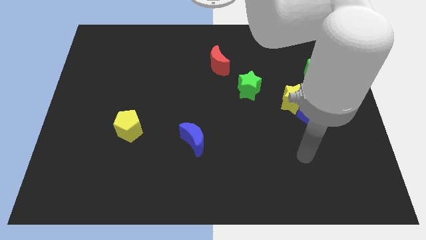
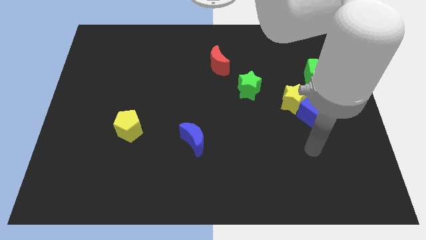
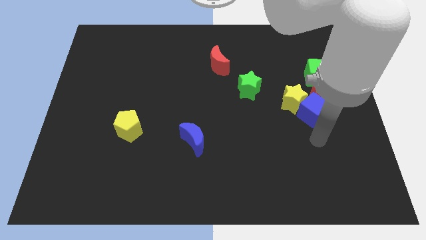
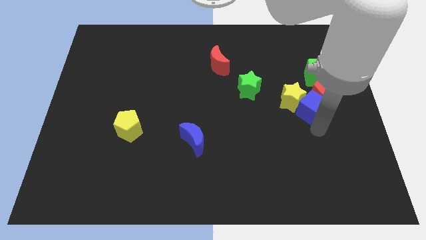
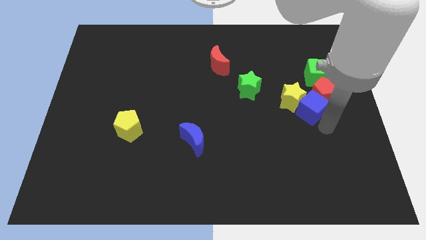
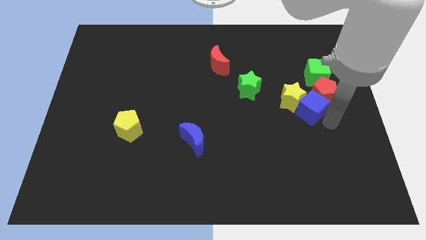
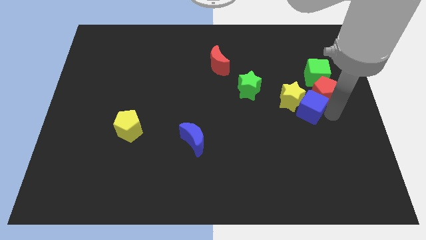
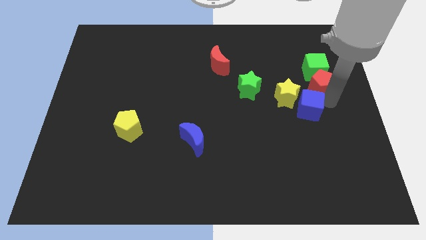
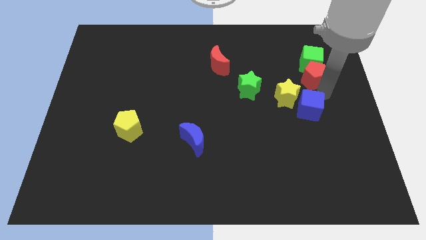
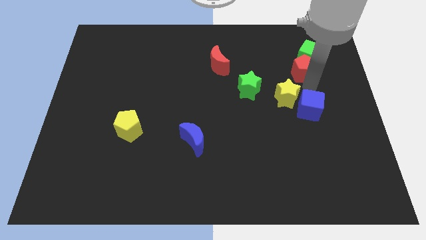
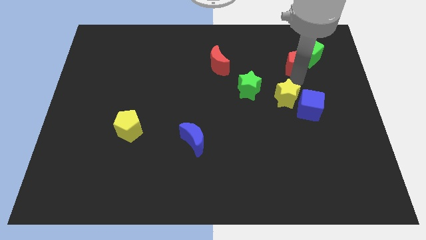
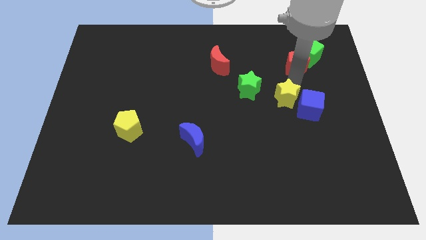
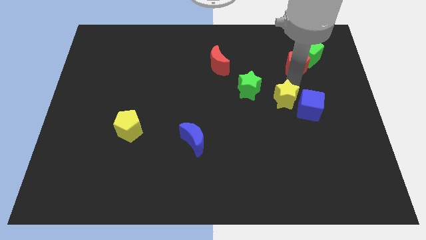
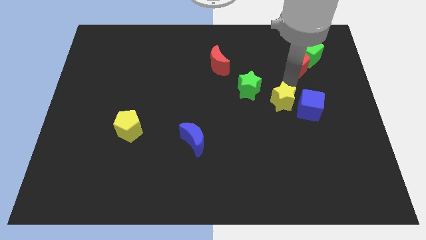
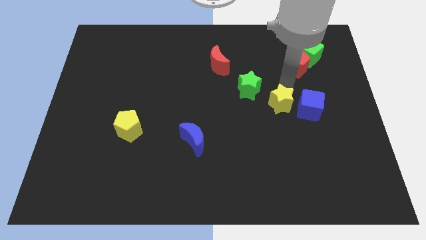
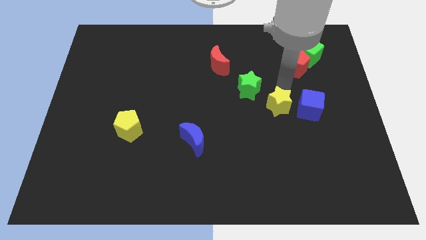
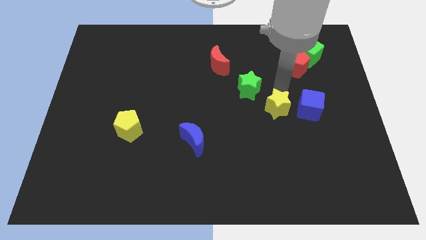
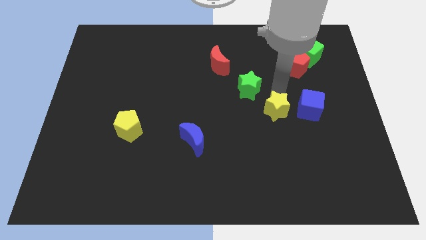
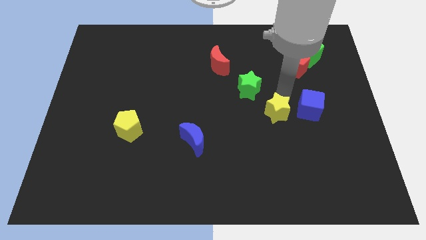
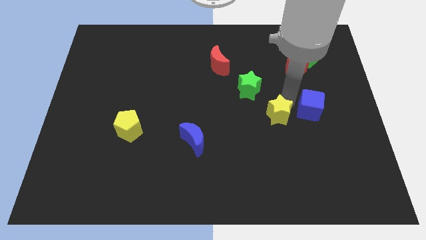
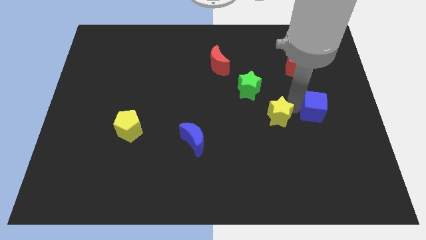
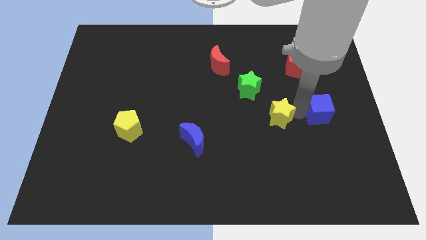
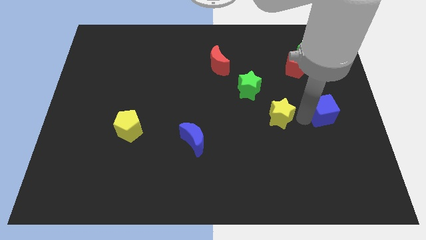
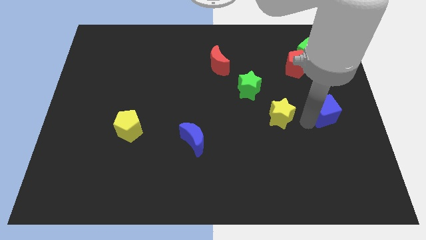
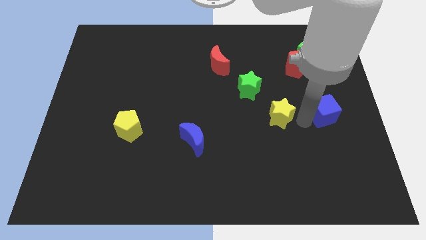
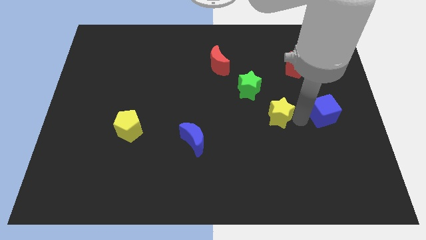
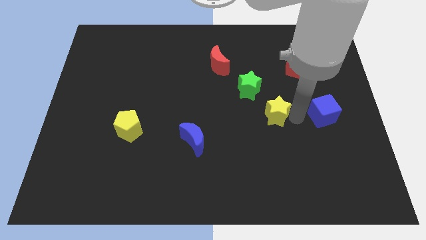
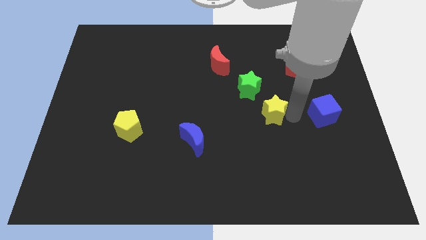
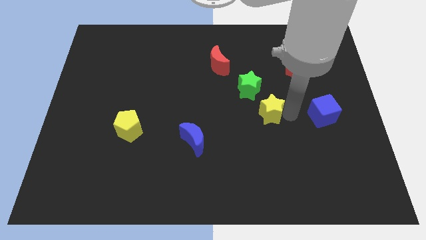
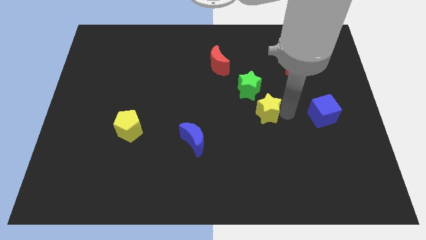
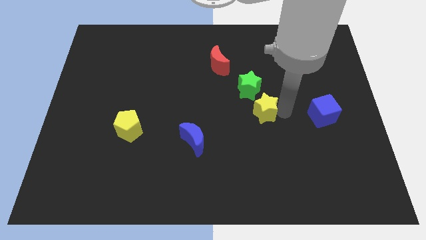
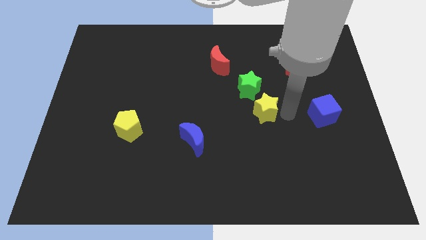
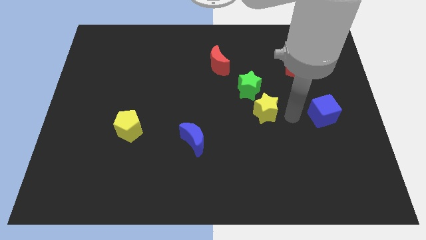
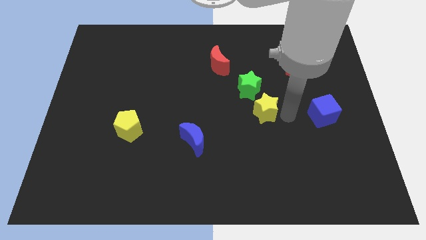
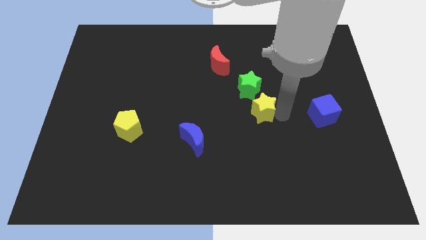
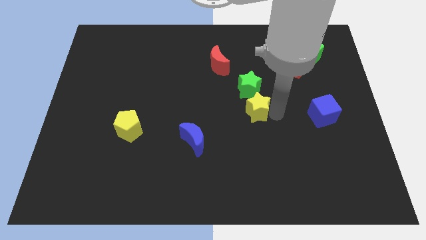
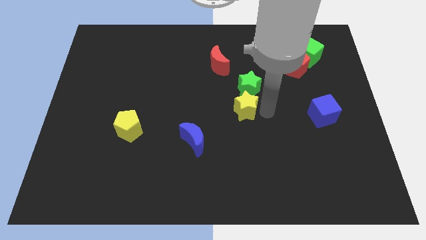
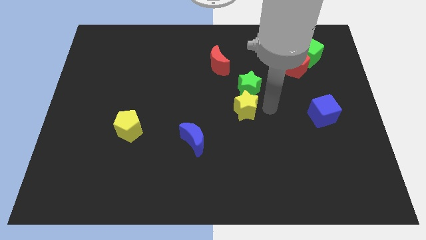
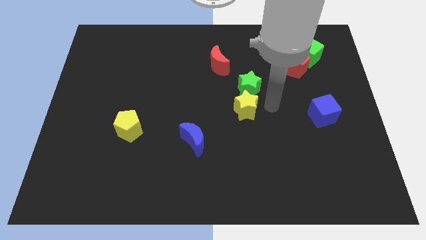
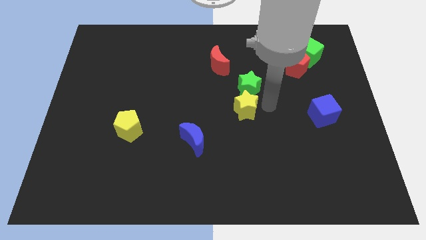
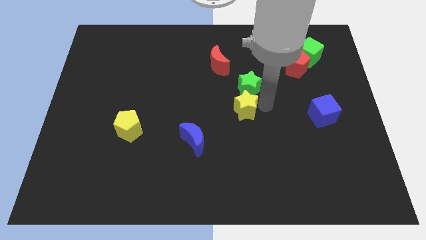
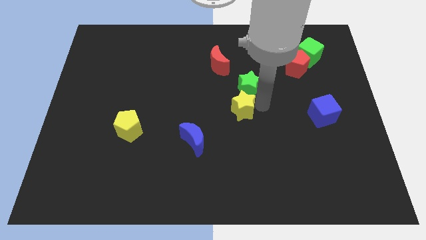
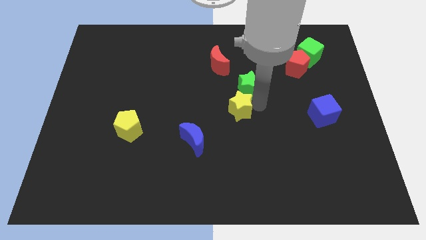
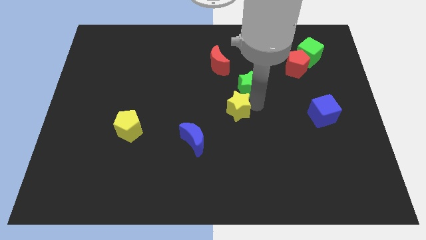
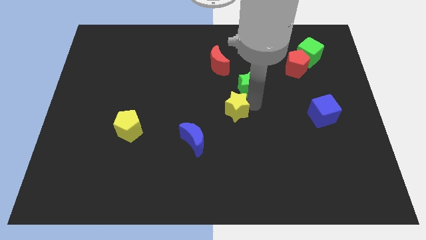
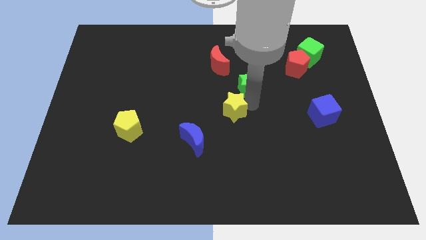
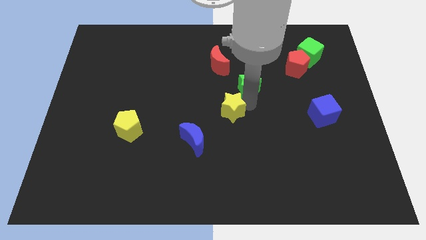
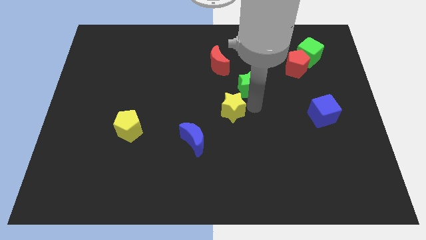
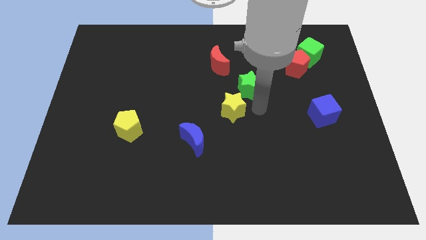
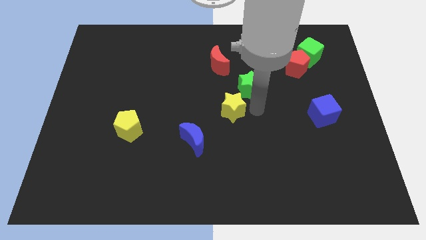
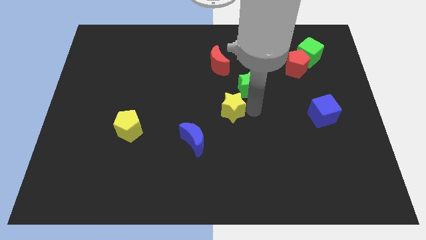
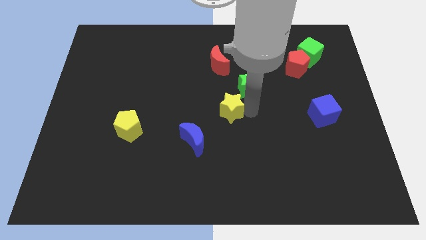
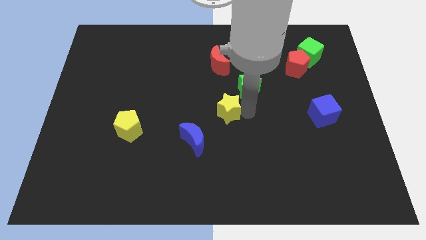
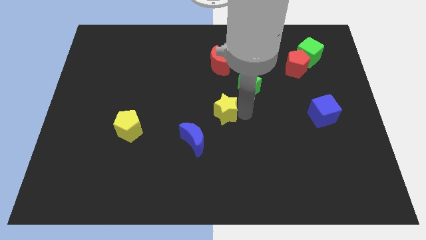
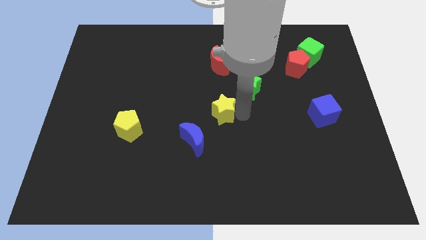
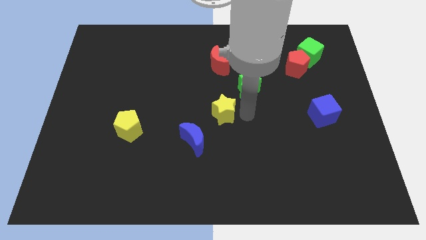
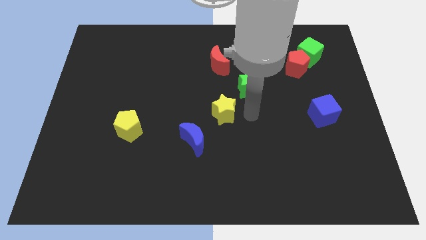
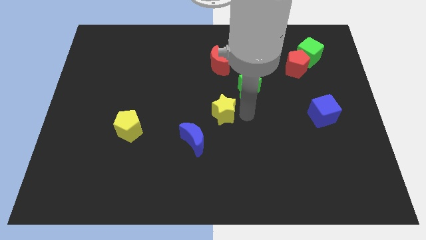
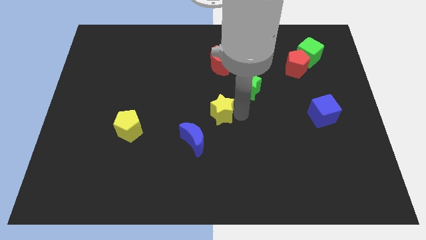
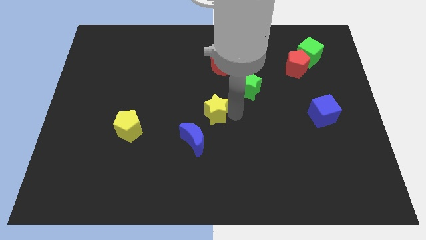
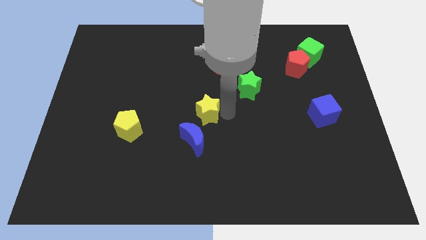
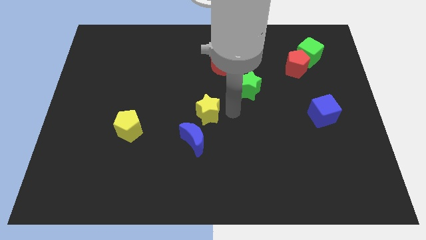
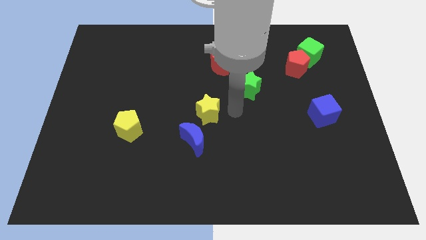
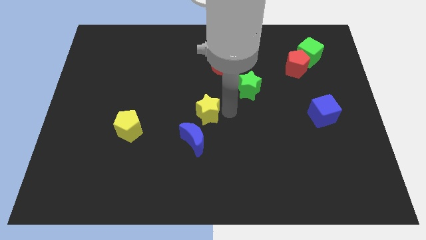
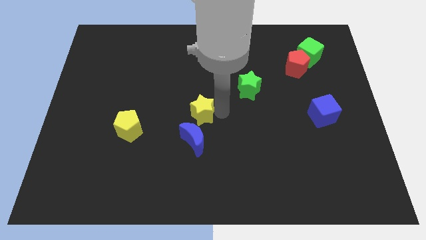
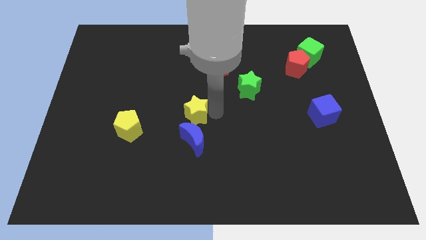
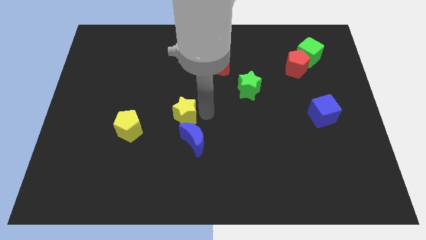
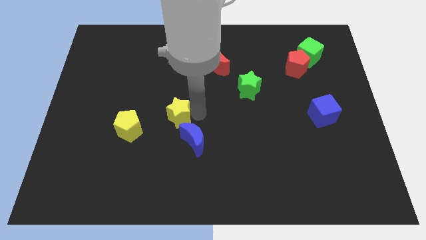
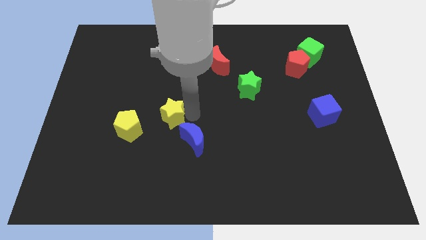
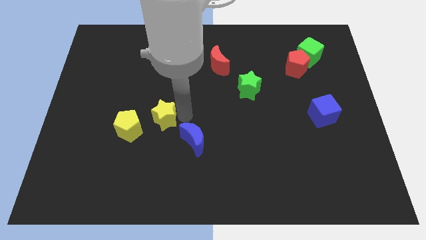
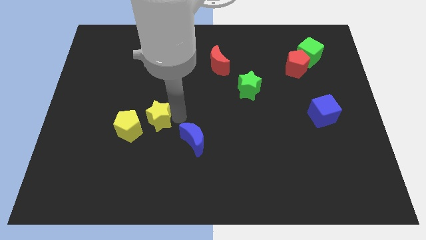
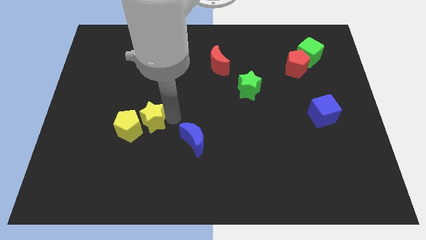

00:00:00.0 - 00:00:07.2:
push the yellow star close to the yellow pentagon

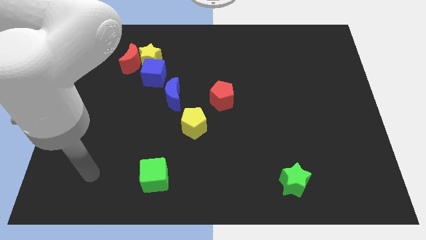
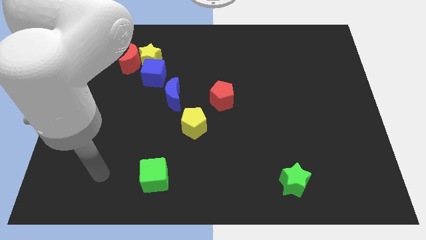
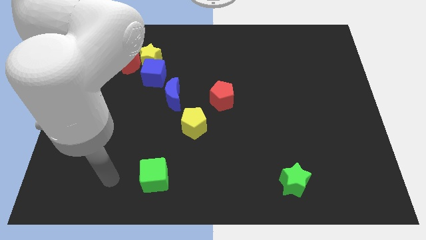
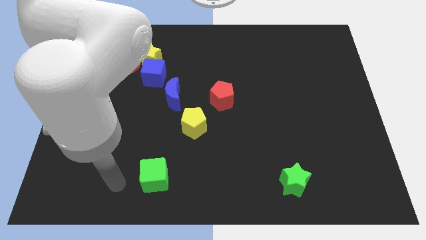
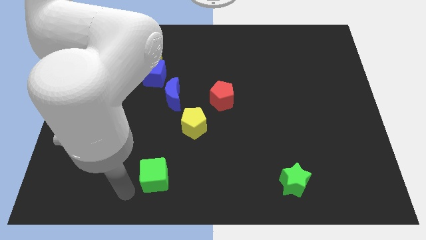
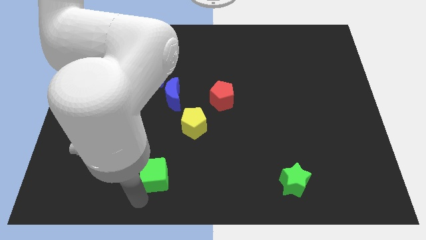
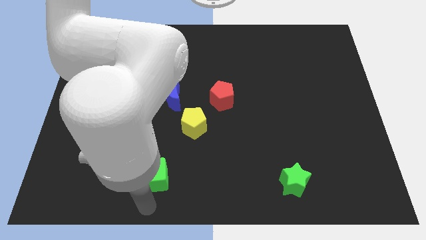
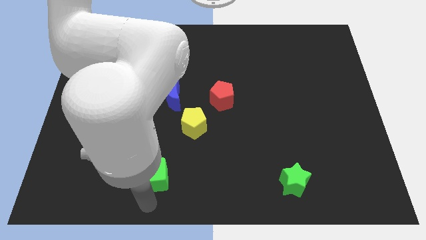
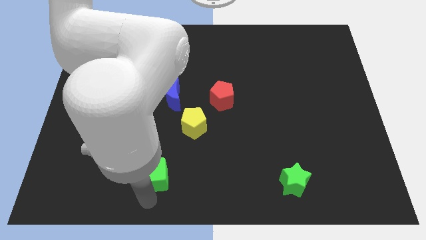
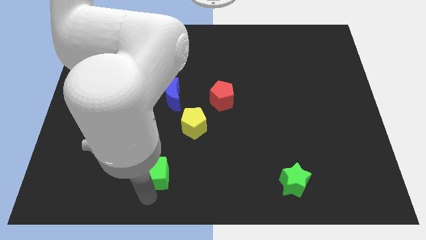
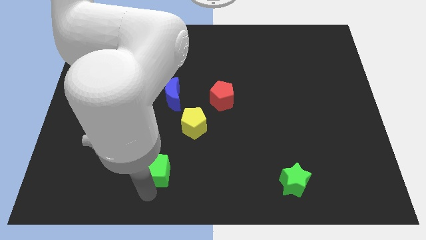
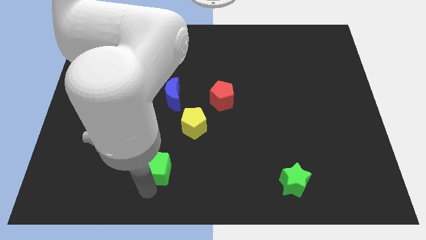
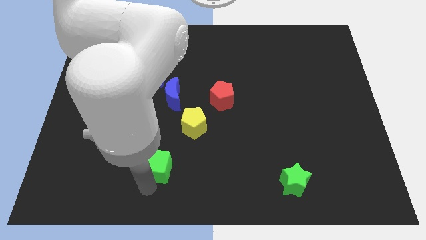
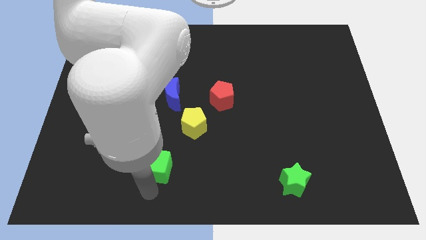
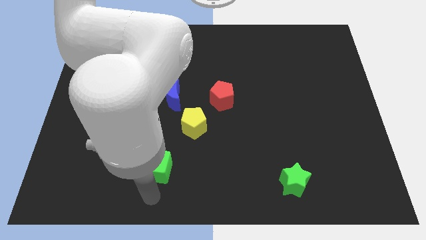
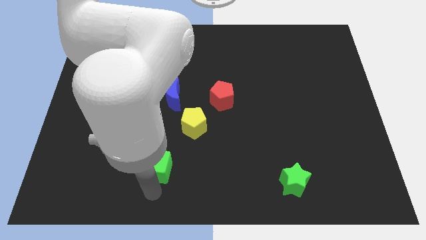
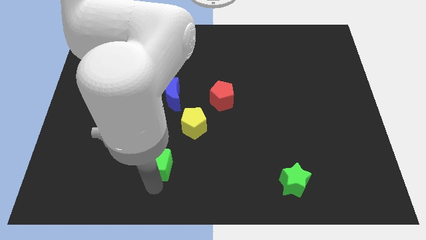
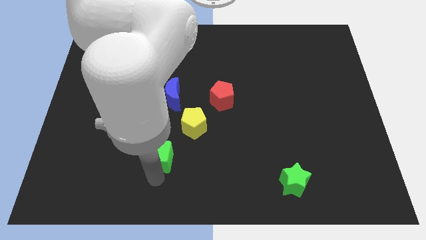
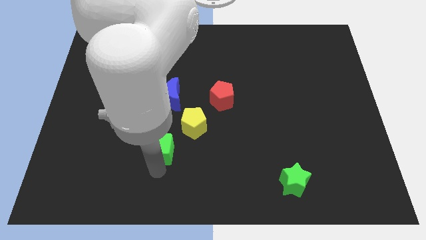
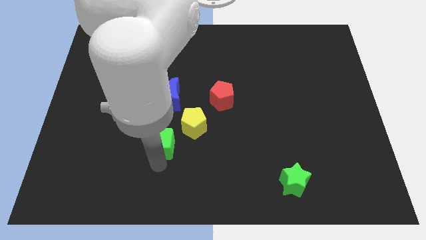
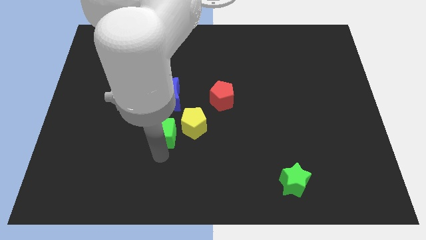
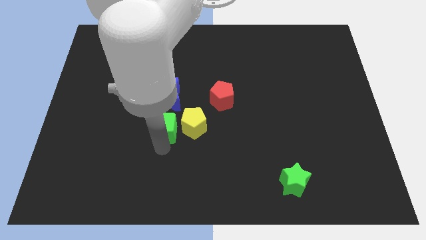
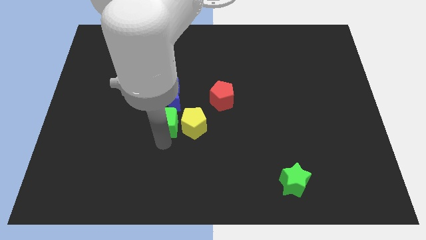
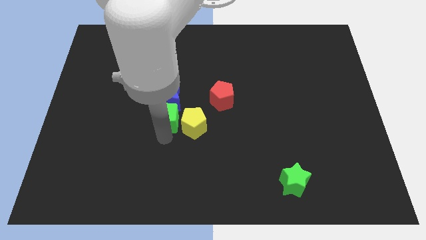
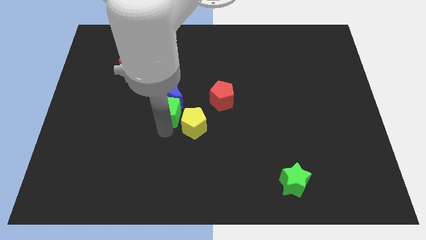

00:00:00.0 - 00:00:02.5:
put the green cube close to the blue moon
